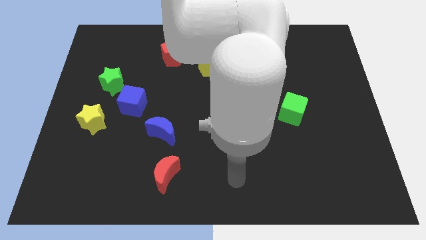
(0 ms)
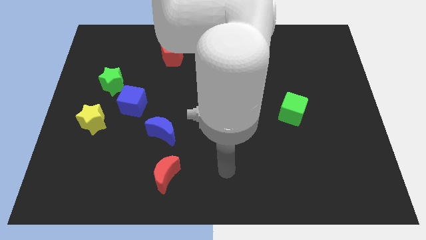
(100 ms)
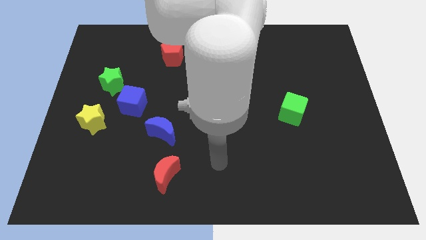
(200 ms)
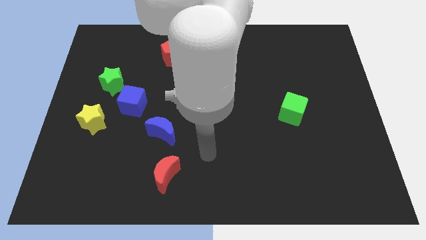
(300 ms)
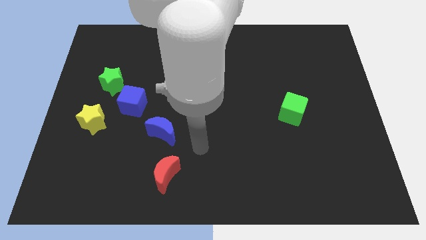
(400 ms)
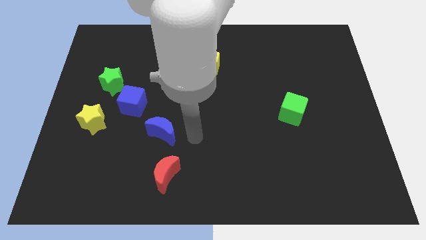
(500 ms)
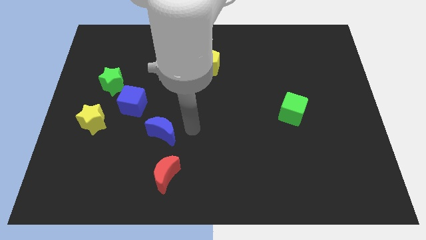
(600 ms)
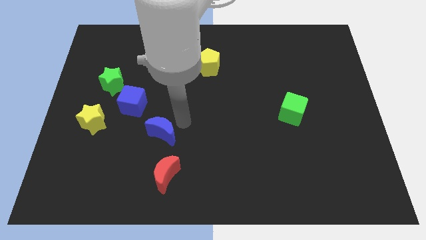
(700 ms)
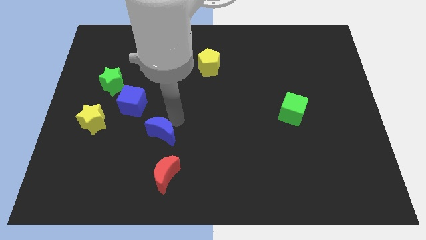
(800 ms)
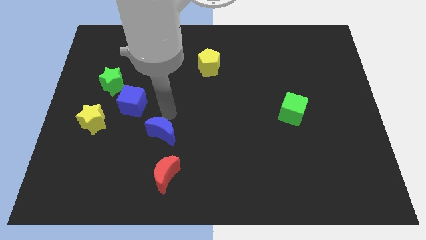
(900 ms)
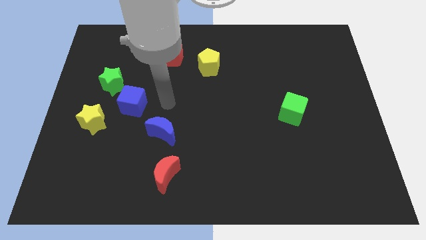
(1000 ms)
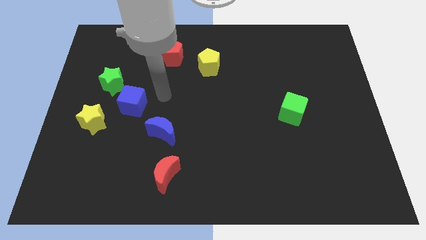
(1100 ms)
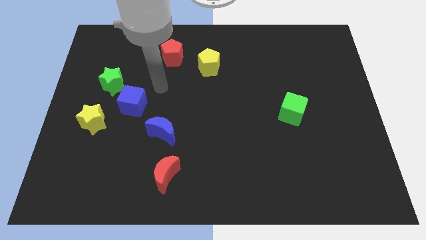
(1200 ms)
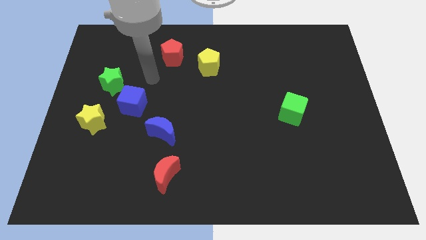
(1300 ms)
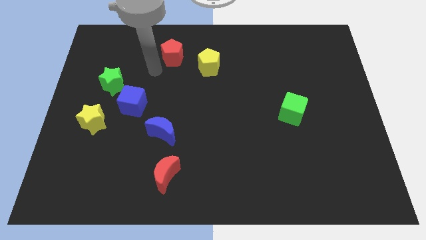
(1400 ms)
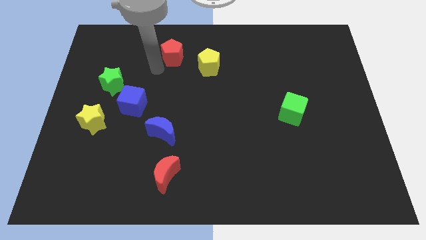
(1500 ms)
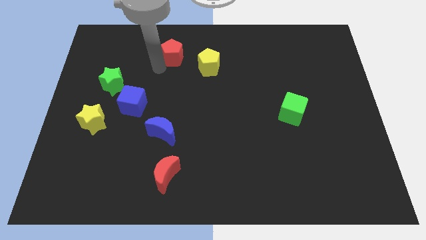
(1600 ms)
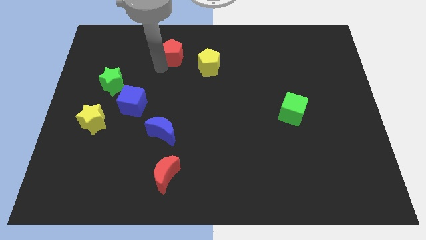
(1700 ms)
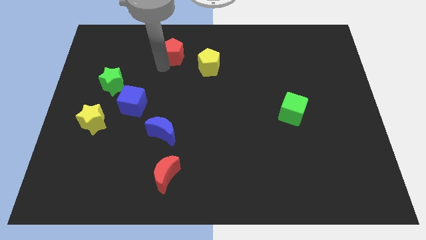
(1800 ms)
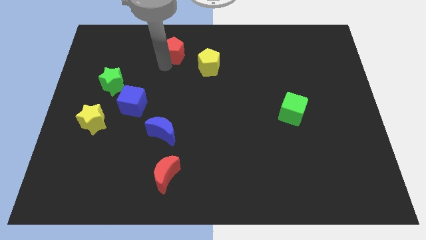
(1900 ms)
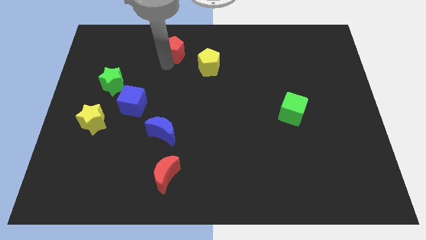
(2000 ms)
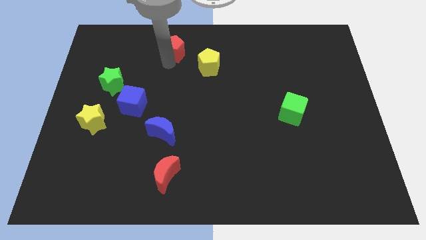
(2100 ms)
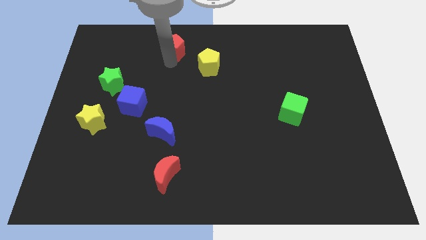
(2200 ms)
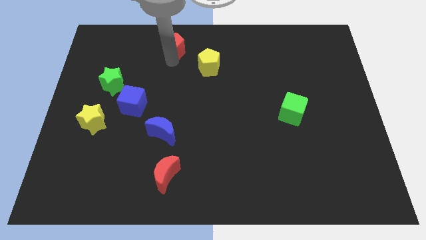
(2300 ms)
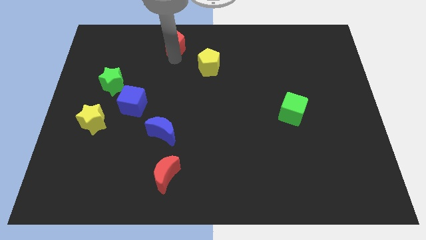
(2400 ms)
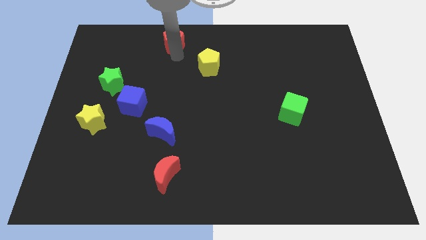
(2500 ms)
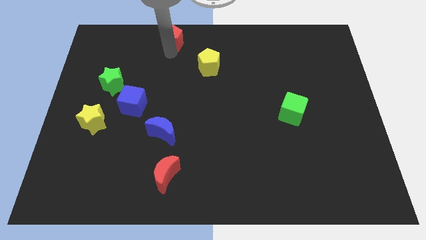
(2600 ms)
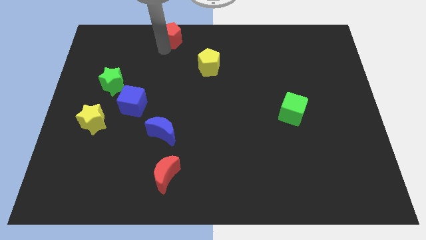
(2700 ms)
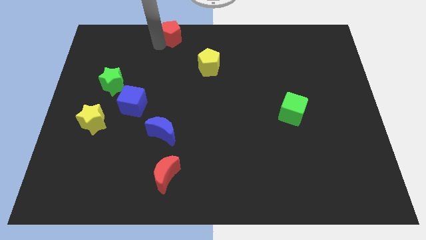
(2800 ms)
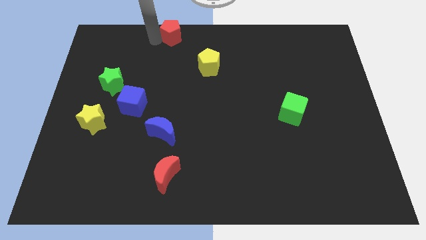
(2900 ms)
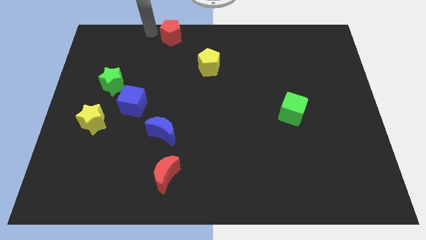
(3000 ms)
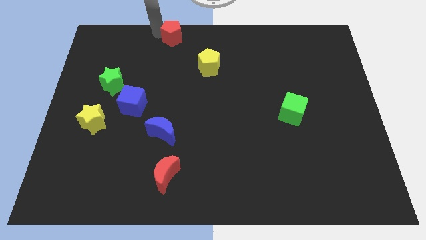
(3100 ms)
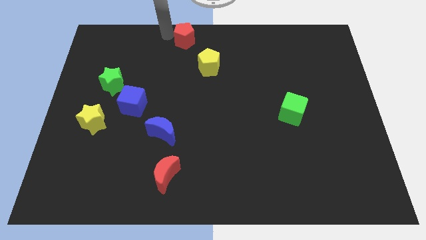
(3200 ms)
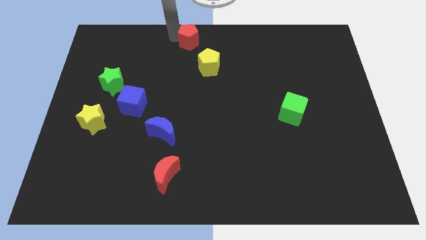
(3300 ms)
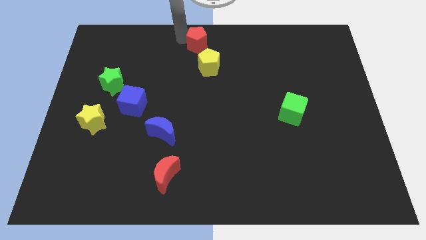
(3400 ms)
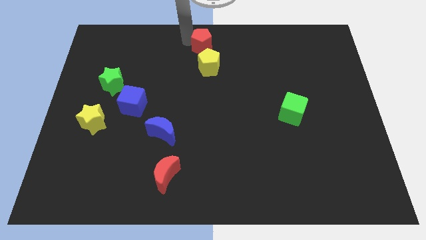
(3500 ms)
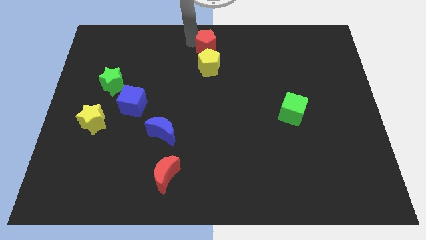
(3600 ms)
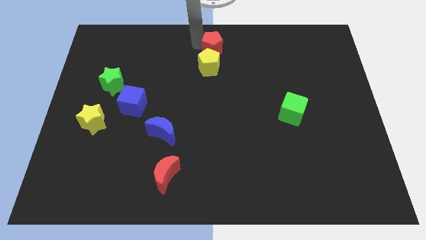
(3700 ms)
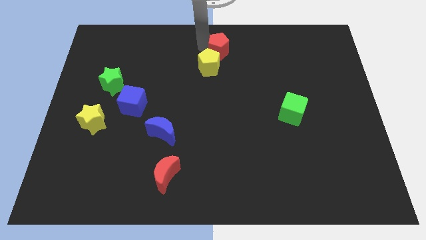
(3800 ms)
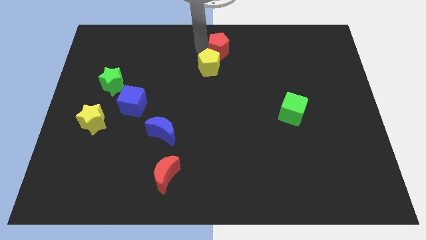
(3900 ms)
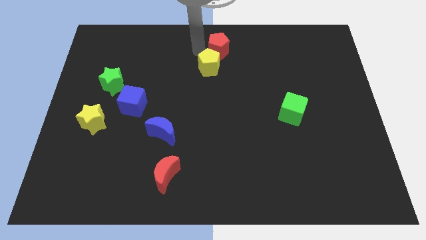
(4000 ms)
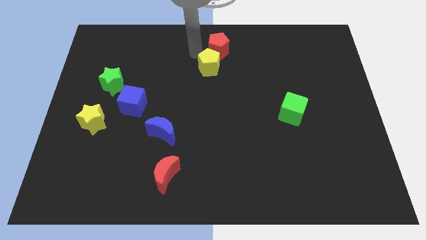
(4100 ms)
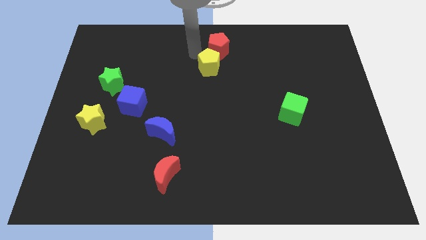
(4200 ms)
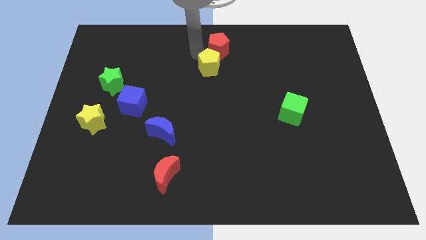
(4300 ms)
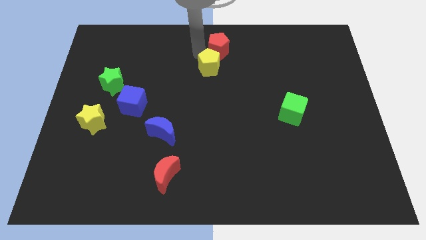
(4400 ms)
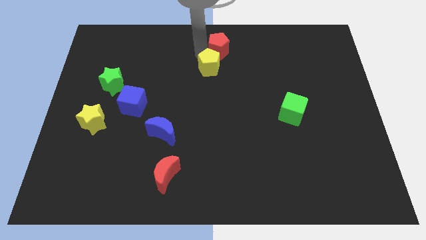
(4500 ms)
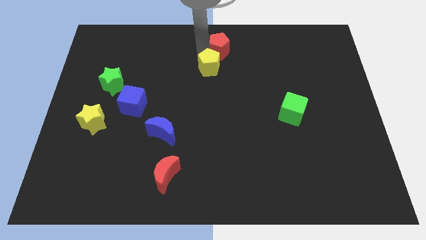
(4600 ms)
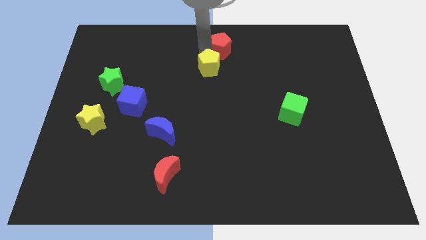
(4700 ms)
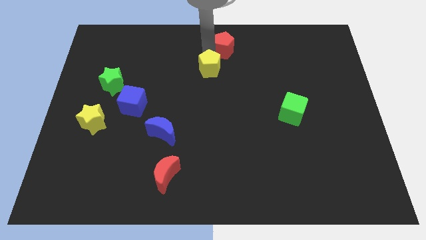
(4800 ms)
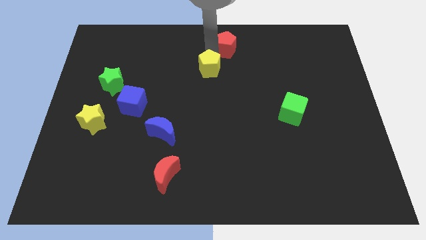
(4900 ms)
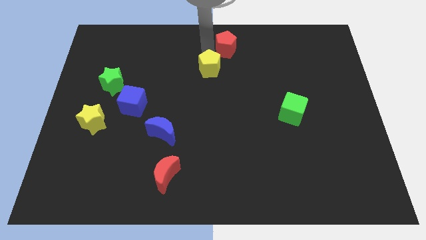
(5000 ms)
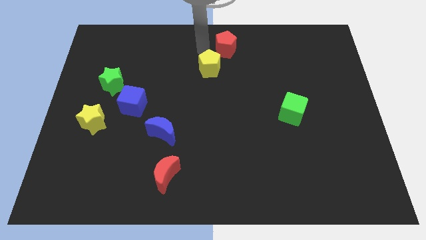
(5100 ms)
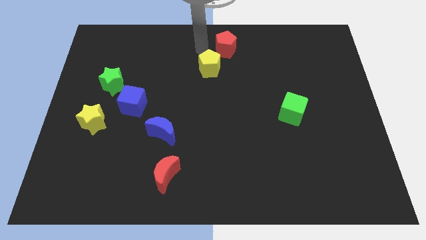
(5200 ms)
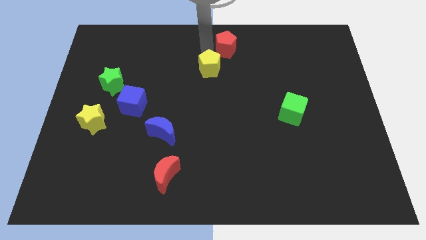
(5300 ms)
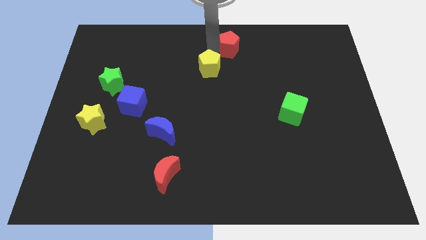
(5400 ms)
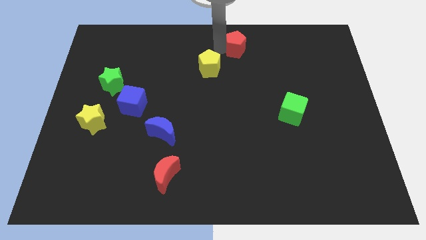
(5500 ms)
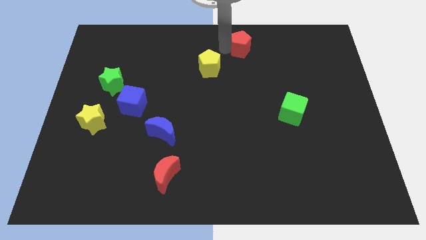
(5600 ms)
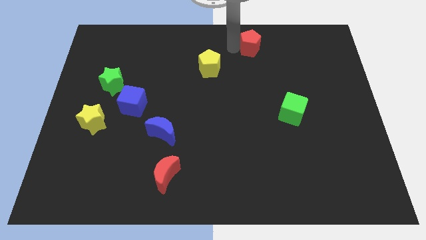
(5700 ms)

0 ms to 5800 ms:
push the red pentagon right

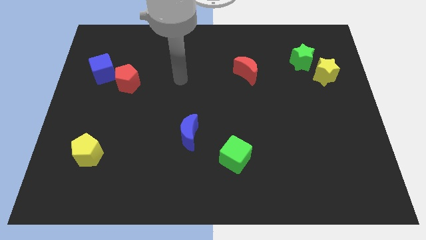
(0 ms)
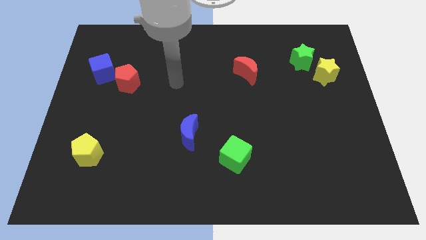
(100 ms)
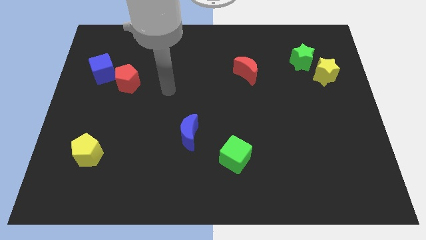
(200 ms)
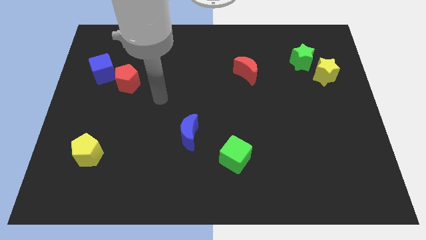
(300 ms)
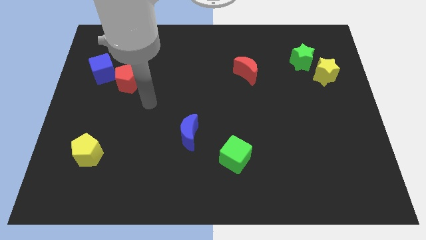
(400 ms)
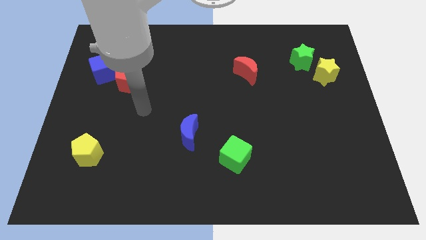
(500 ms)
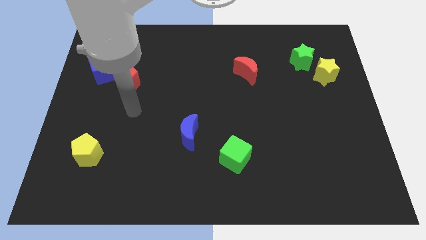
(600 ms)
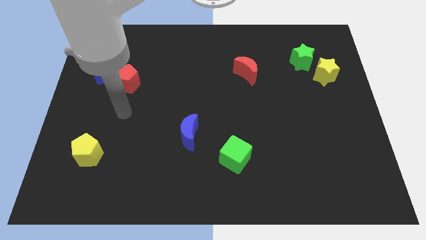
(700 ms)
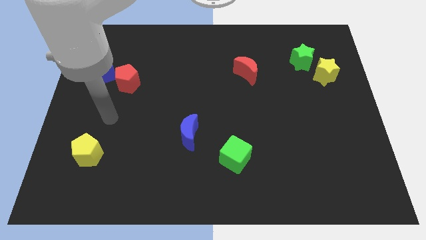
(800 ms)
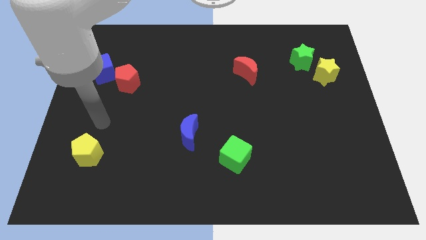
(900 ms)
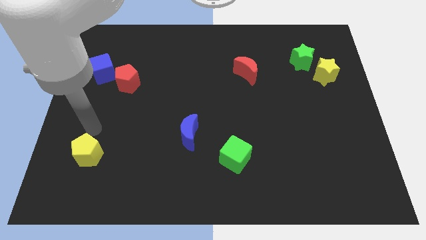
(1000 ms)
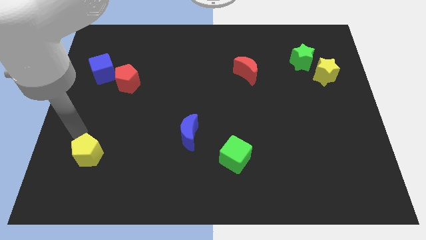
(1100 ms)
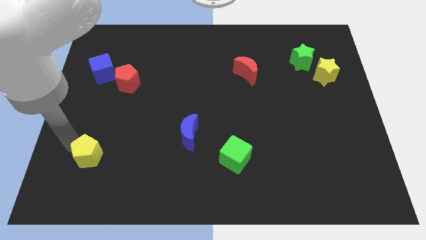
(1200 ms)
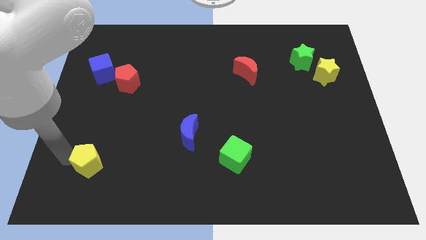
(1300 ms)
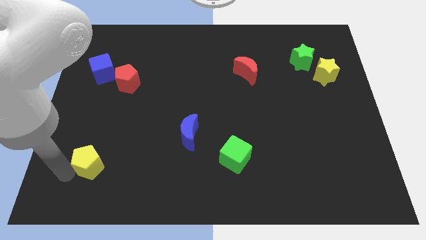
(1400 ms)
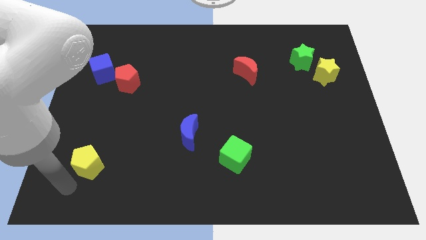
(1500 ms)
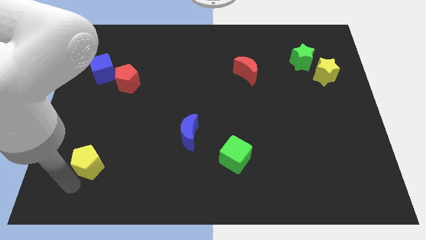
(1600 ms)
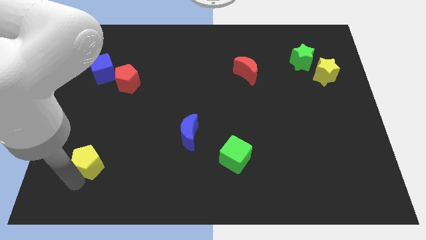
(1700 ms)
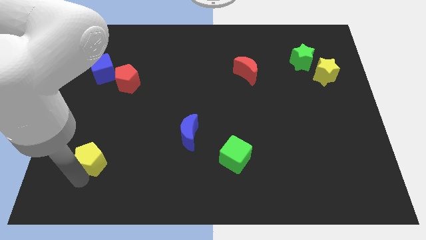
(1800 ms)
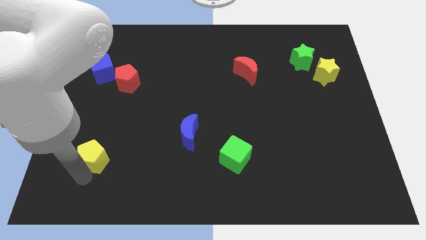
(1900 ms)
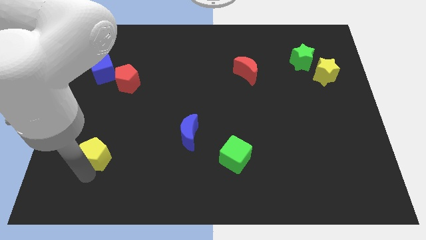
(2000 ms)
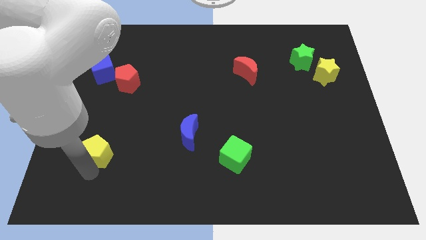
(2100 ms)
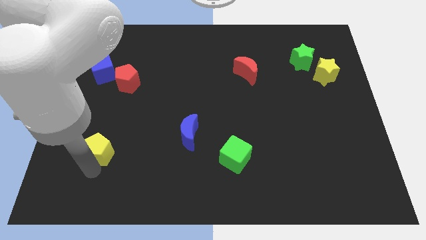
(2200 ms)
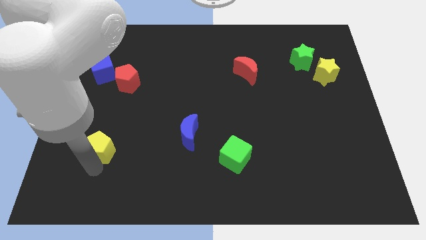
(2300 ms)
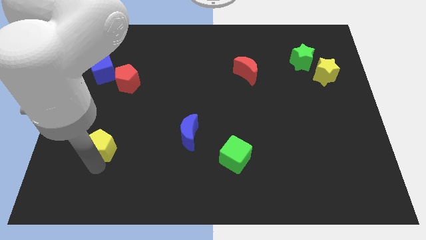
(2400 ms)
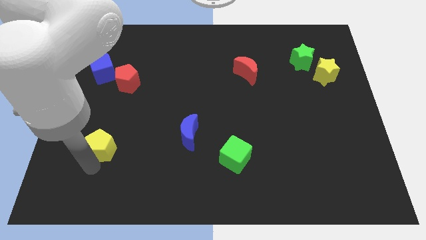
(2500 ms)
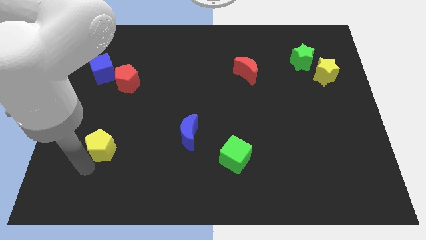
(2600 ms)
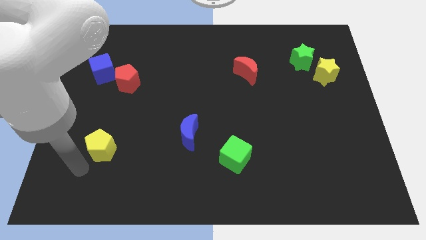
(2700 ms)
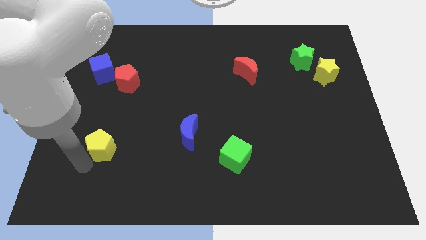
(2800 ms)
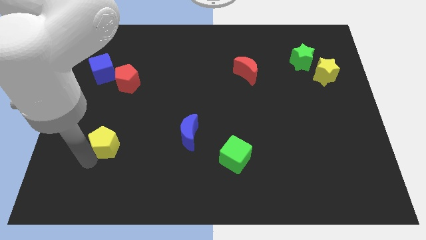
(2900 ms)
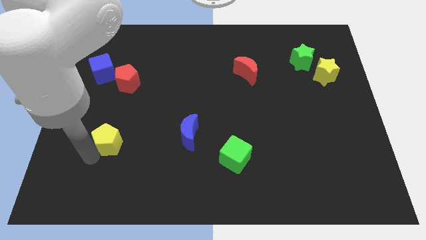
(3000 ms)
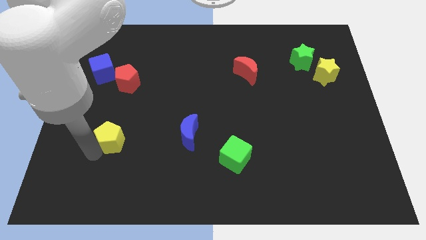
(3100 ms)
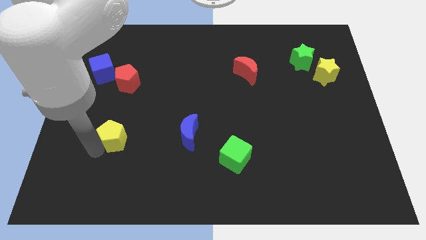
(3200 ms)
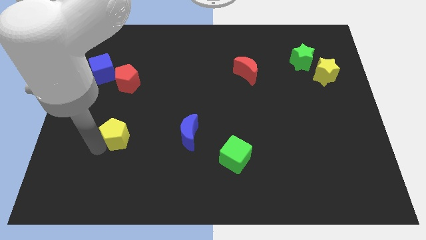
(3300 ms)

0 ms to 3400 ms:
slightly slide the yellow pentagon up and to the right
